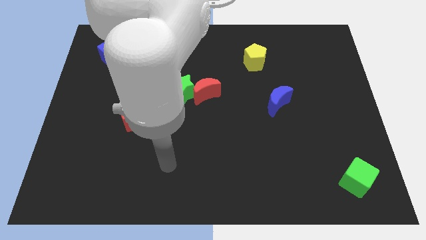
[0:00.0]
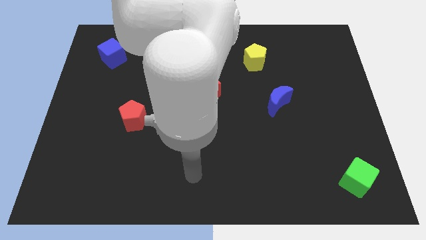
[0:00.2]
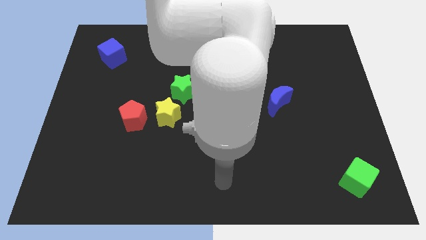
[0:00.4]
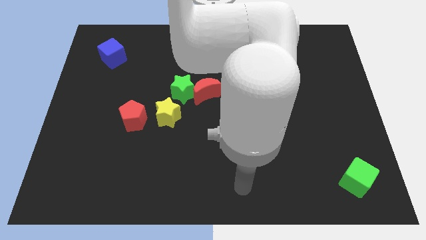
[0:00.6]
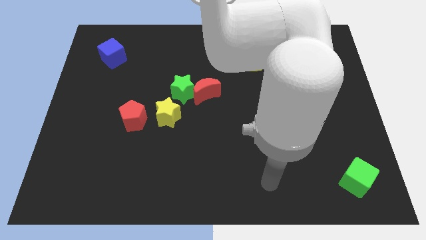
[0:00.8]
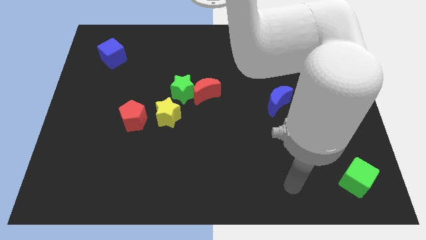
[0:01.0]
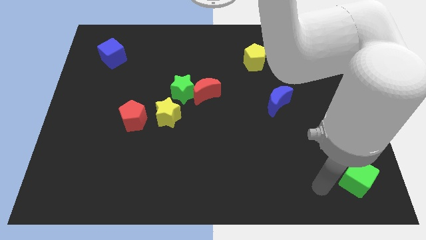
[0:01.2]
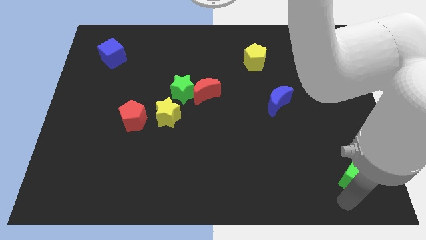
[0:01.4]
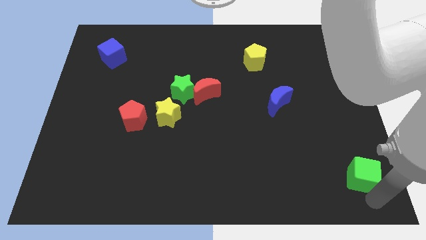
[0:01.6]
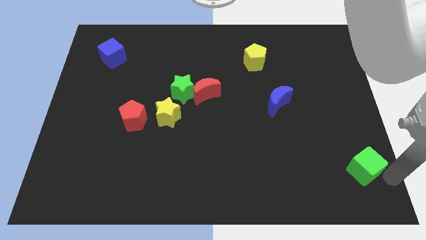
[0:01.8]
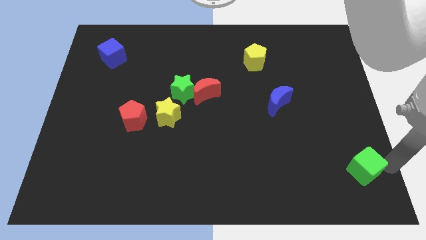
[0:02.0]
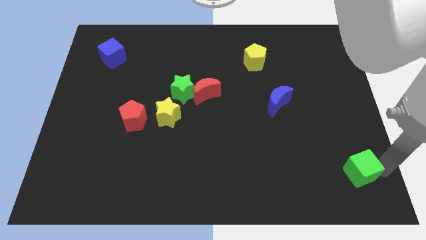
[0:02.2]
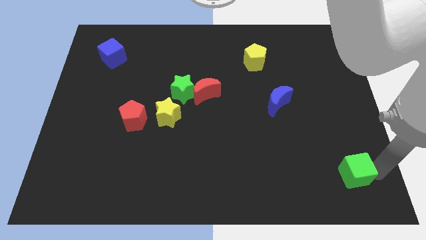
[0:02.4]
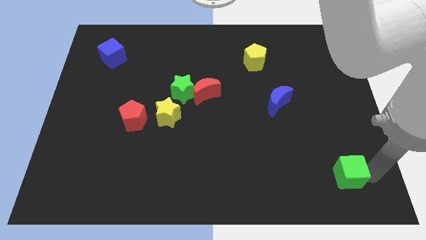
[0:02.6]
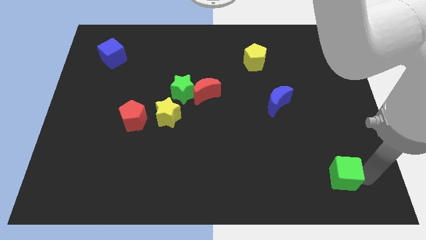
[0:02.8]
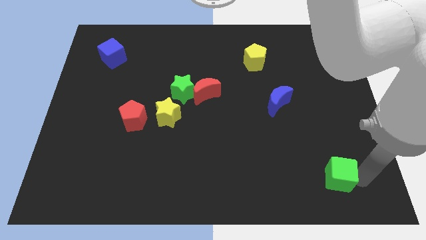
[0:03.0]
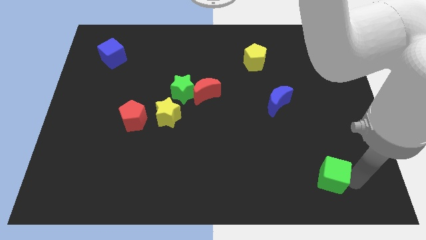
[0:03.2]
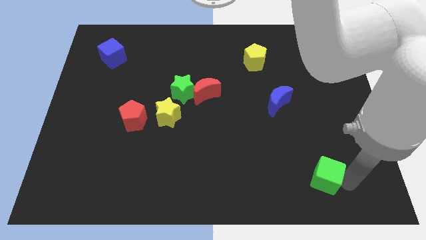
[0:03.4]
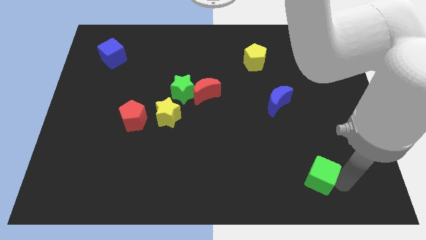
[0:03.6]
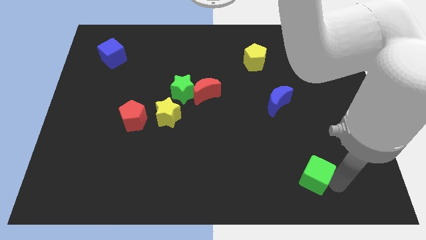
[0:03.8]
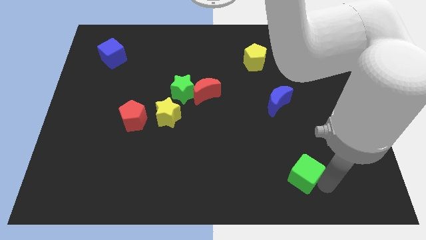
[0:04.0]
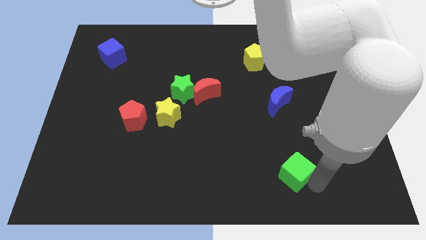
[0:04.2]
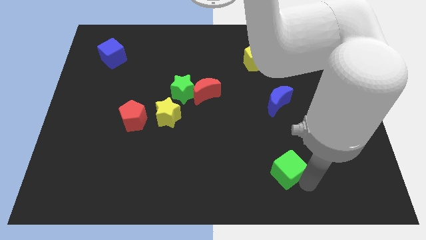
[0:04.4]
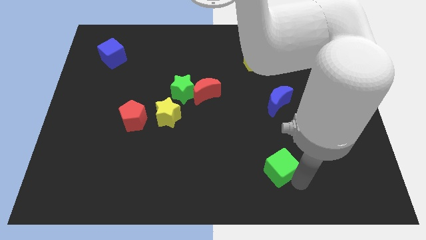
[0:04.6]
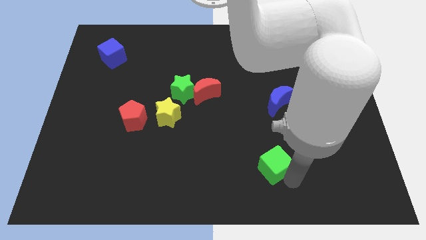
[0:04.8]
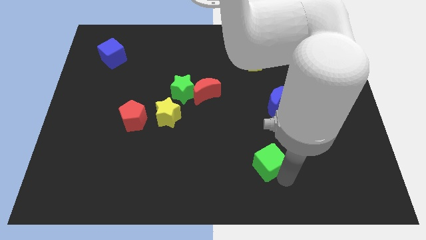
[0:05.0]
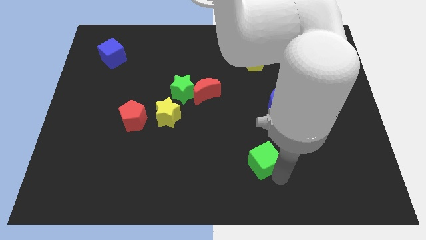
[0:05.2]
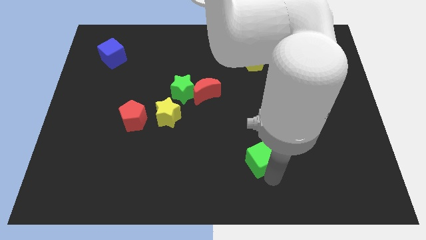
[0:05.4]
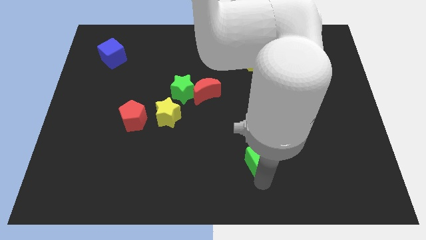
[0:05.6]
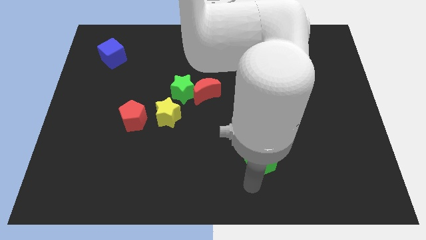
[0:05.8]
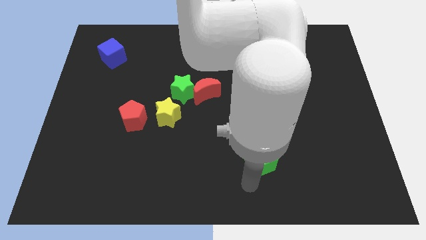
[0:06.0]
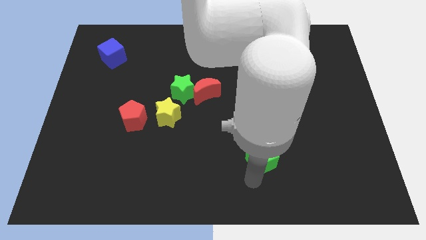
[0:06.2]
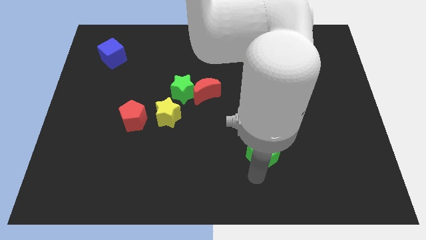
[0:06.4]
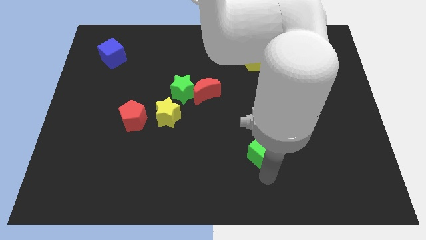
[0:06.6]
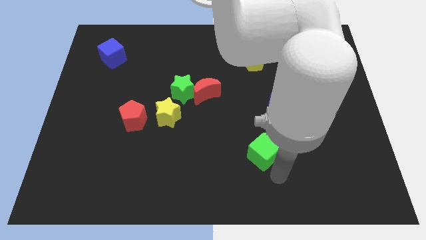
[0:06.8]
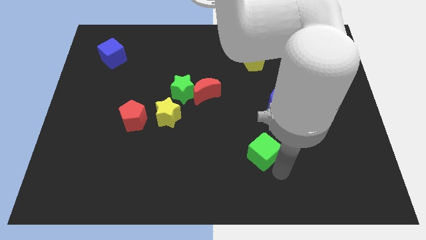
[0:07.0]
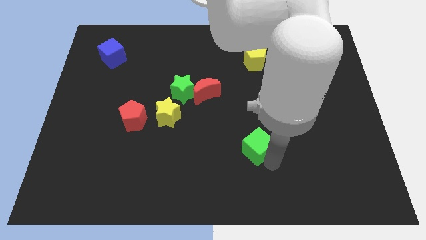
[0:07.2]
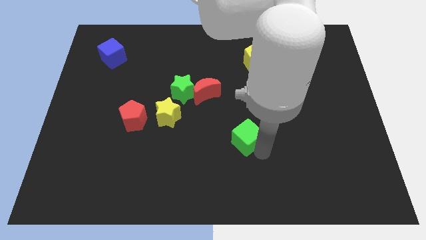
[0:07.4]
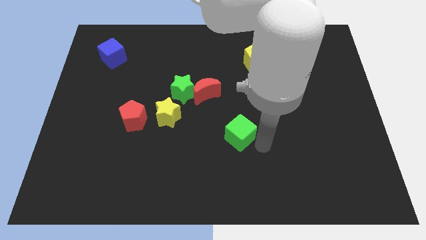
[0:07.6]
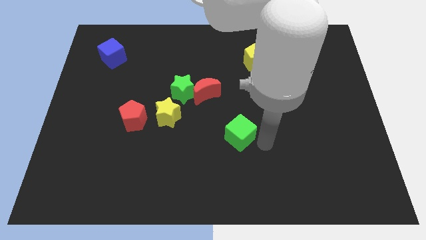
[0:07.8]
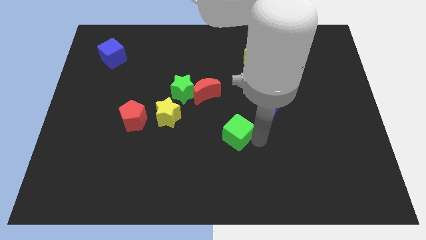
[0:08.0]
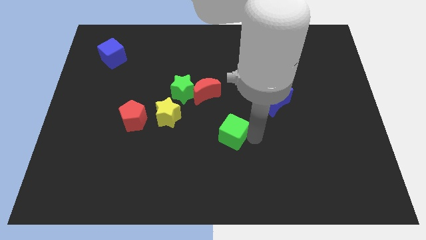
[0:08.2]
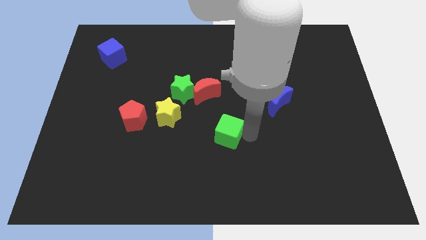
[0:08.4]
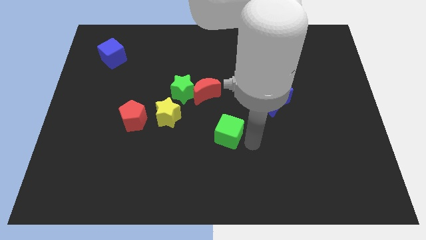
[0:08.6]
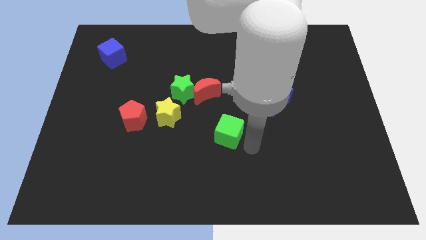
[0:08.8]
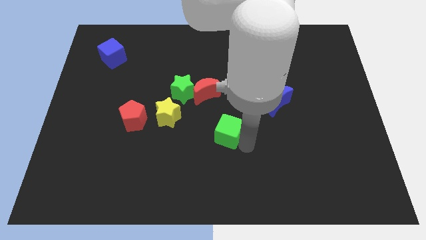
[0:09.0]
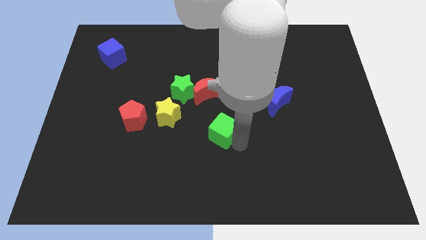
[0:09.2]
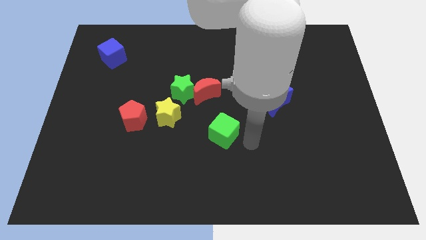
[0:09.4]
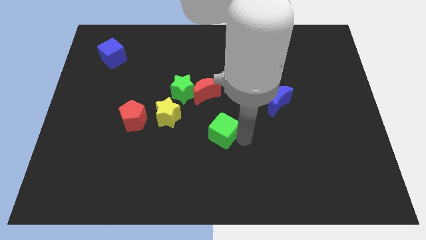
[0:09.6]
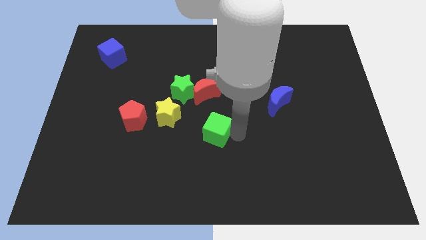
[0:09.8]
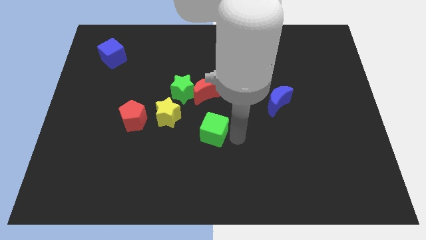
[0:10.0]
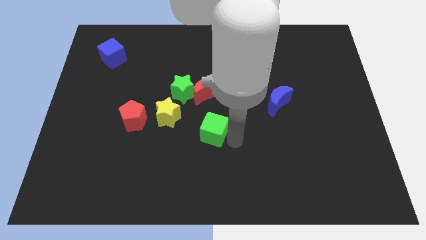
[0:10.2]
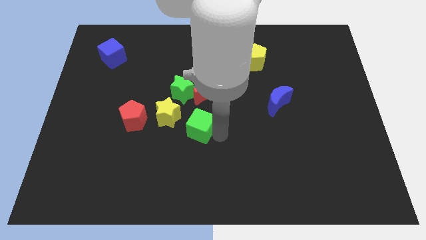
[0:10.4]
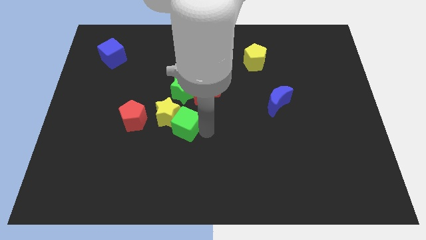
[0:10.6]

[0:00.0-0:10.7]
put the green cube next to the yellow star

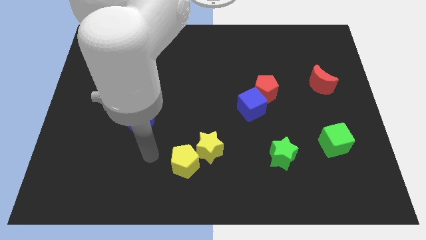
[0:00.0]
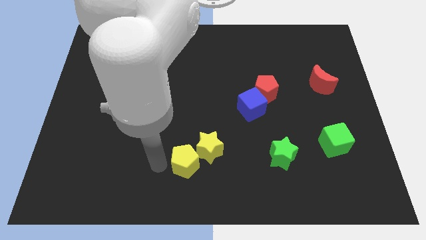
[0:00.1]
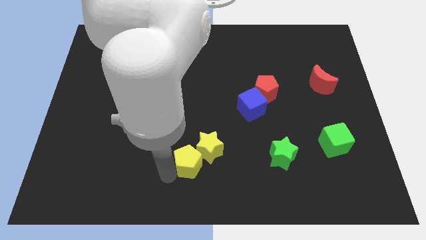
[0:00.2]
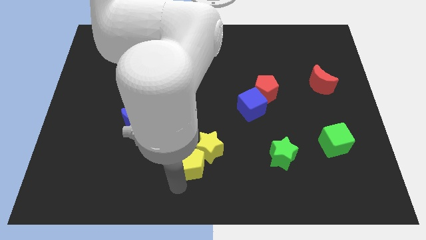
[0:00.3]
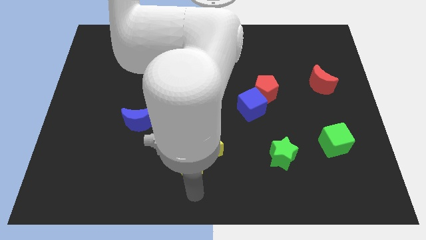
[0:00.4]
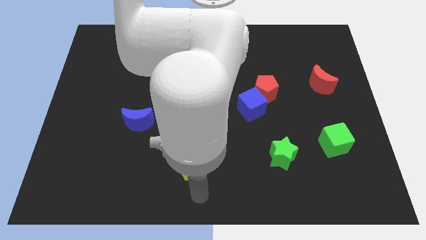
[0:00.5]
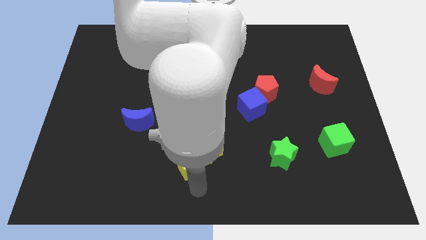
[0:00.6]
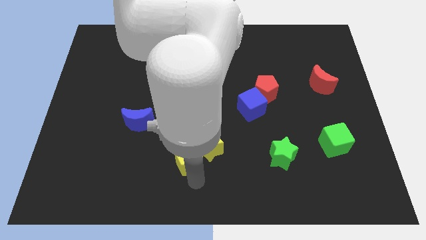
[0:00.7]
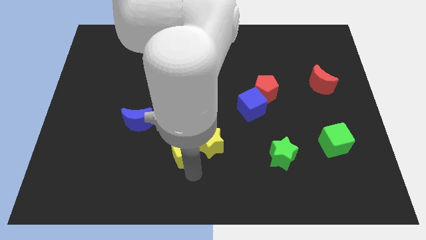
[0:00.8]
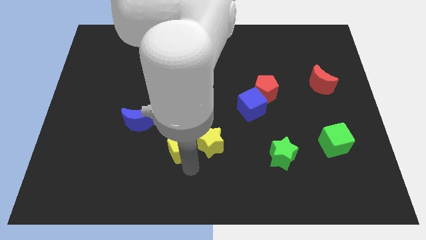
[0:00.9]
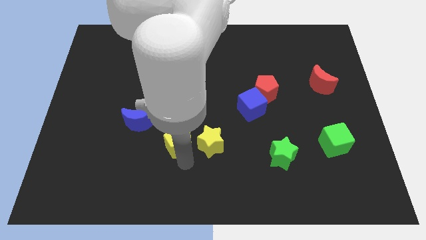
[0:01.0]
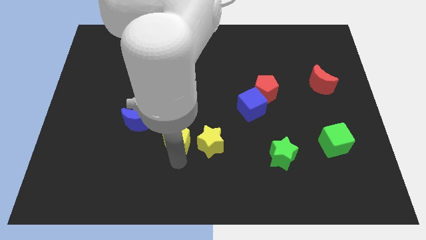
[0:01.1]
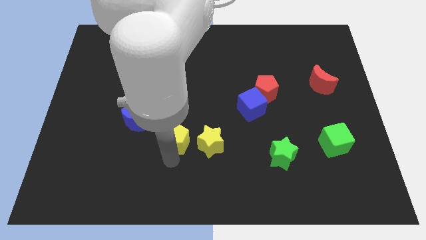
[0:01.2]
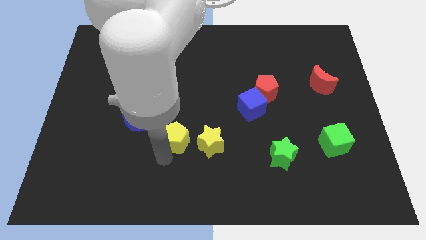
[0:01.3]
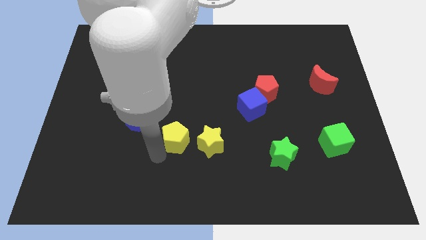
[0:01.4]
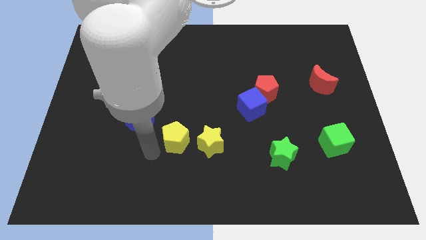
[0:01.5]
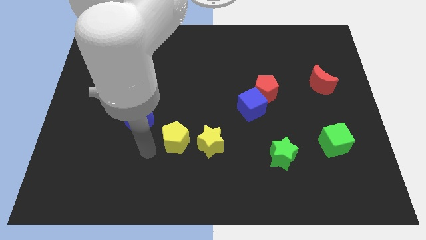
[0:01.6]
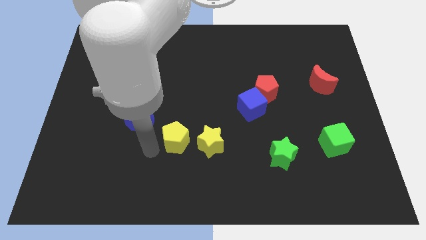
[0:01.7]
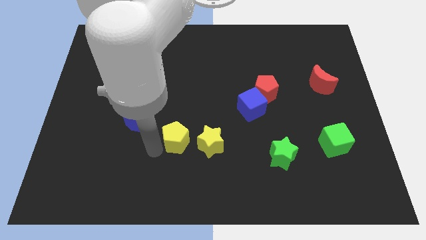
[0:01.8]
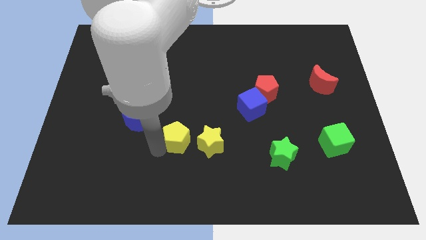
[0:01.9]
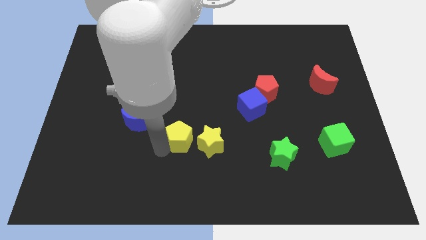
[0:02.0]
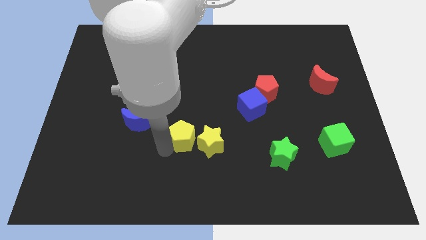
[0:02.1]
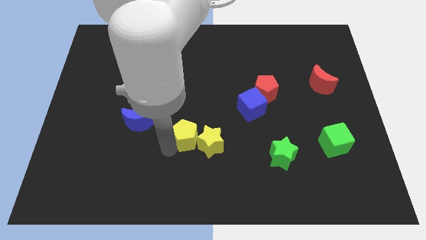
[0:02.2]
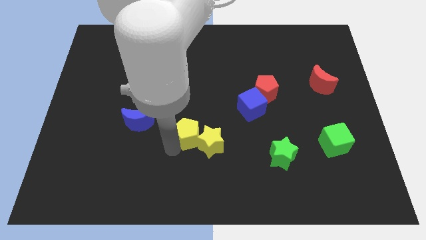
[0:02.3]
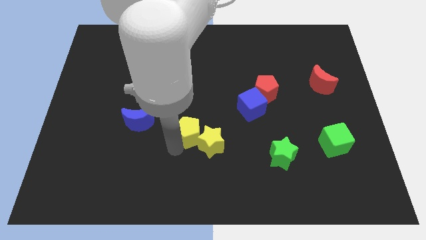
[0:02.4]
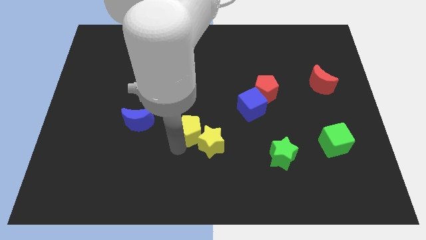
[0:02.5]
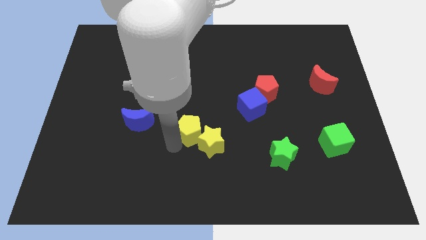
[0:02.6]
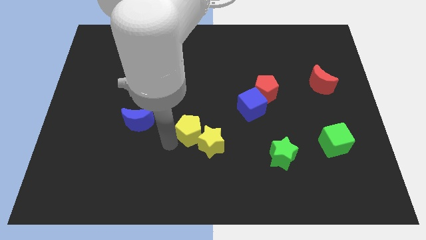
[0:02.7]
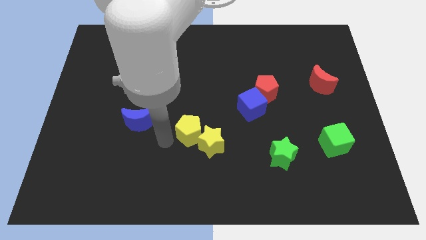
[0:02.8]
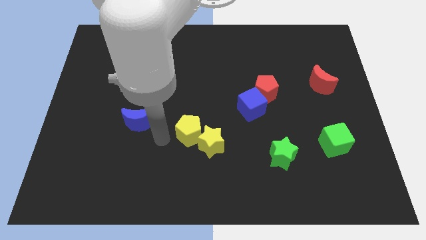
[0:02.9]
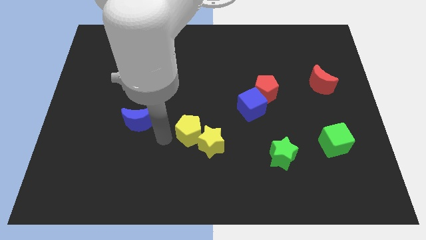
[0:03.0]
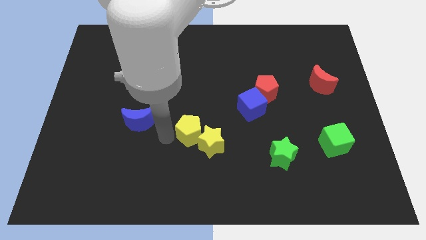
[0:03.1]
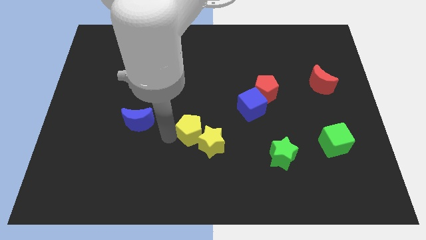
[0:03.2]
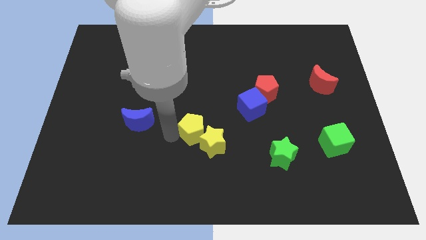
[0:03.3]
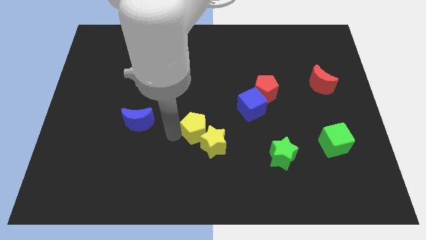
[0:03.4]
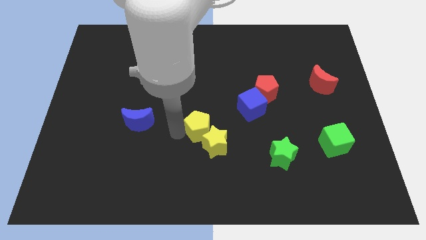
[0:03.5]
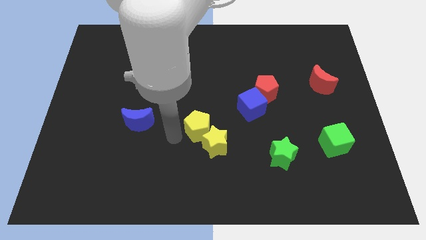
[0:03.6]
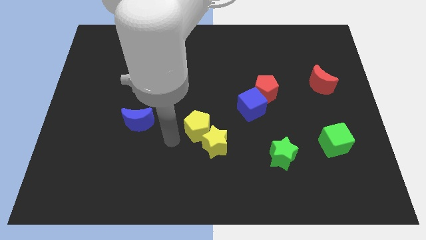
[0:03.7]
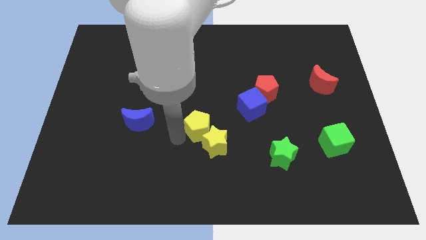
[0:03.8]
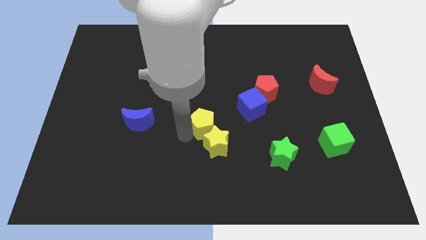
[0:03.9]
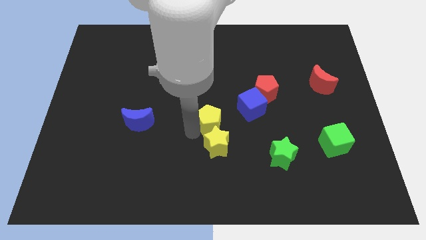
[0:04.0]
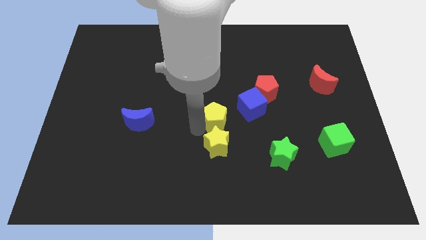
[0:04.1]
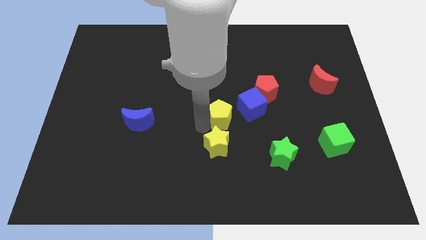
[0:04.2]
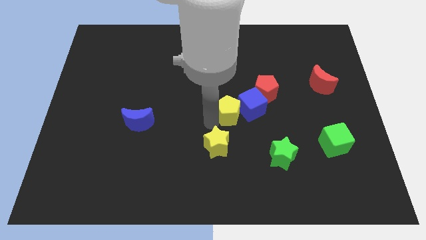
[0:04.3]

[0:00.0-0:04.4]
move the yellow pentagon to the blue cube
